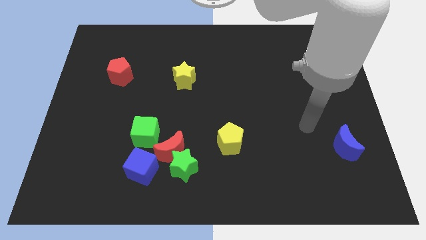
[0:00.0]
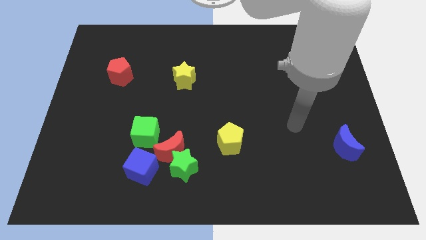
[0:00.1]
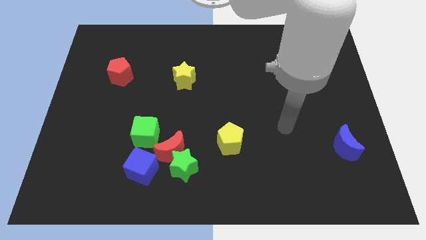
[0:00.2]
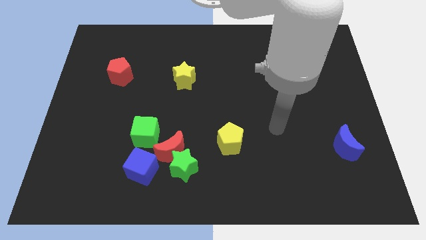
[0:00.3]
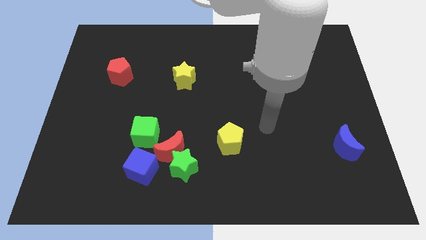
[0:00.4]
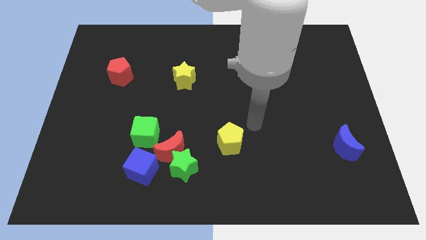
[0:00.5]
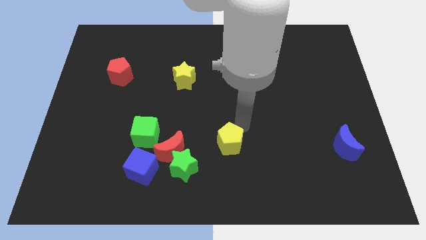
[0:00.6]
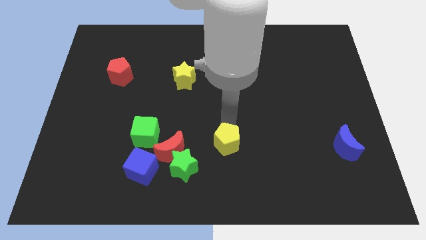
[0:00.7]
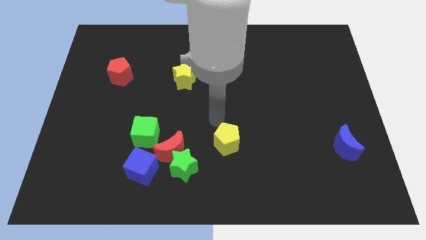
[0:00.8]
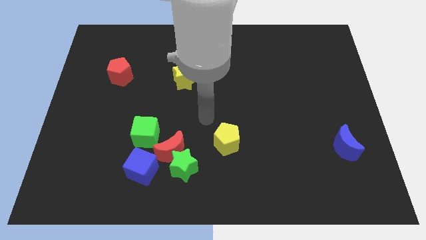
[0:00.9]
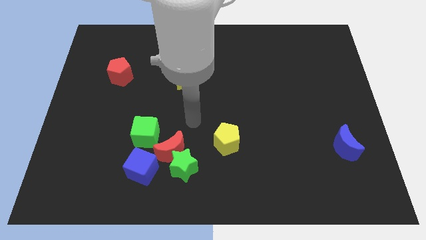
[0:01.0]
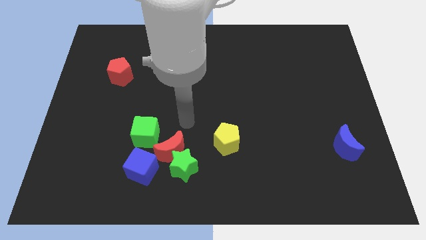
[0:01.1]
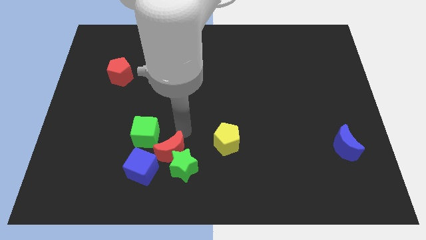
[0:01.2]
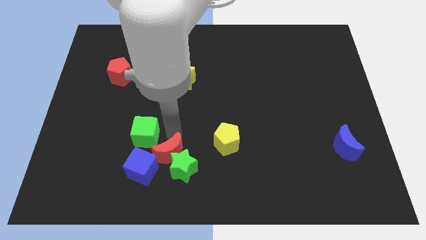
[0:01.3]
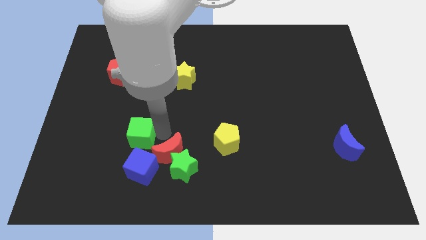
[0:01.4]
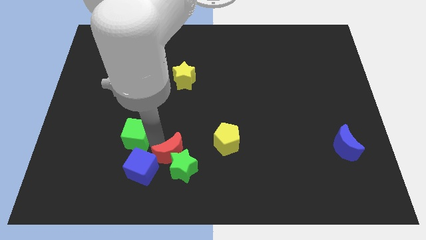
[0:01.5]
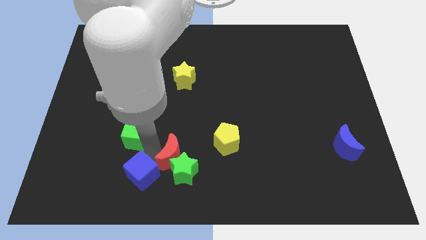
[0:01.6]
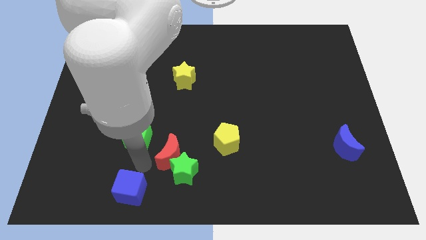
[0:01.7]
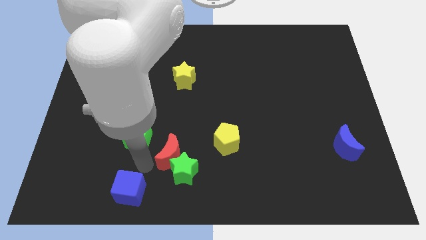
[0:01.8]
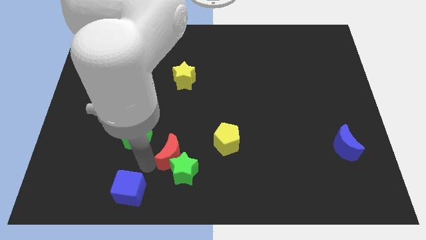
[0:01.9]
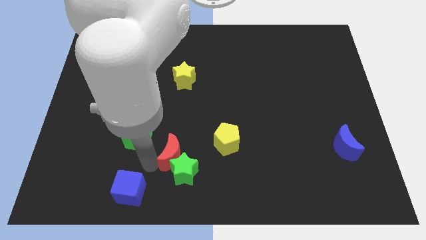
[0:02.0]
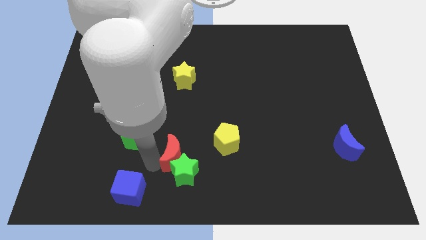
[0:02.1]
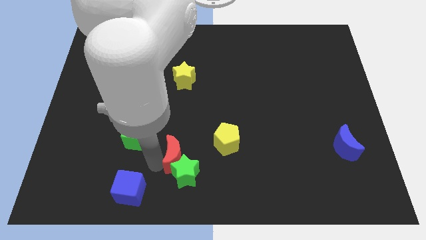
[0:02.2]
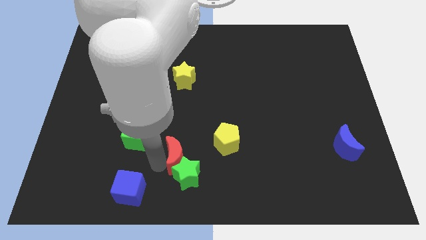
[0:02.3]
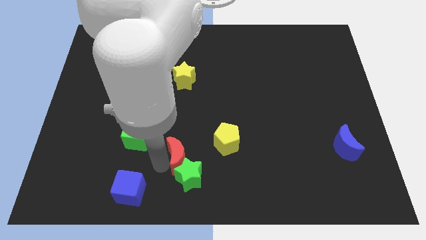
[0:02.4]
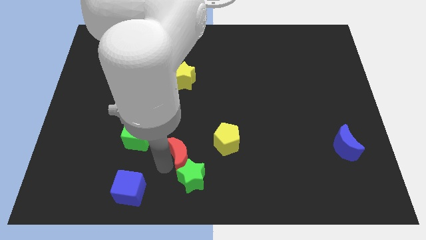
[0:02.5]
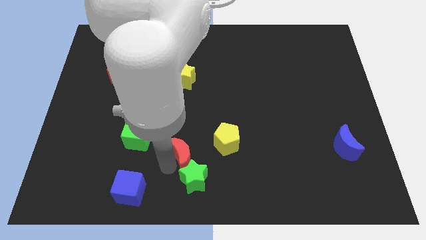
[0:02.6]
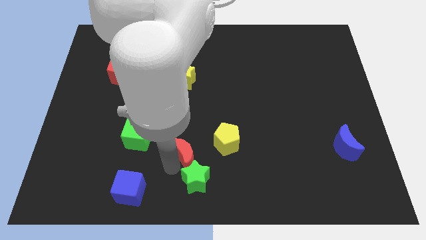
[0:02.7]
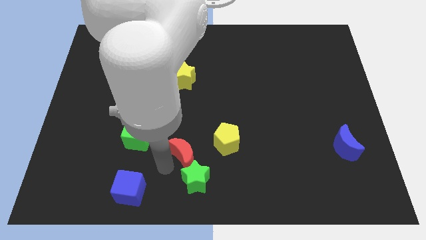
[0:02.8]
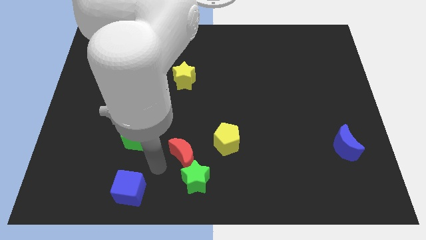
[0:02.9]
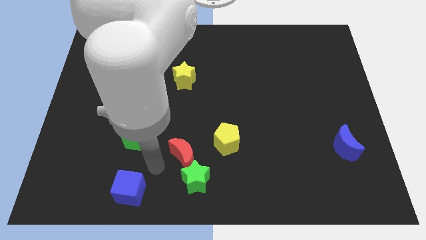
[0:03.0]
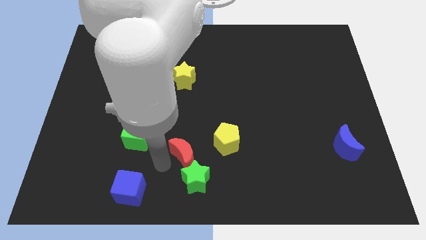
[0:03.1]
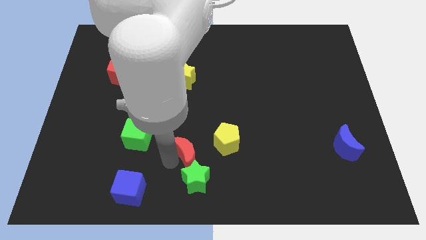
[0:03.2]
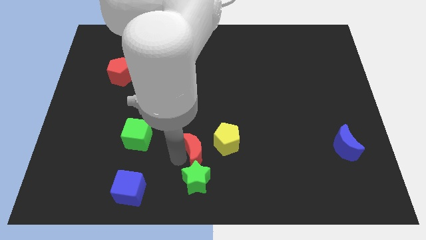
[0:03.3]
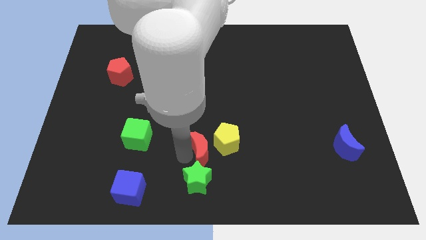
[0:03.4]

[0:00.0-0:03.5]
separate the red moon from the green star, blue cube, and green cube

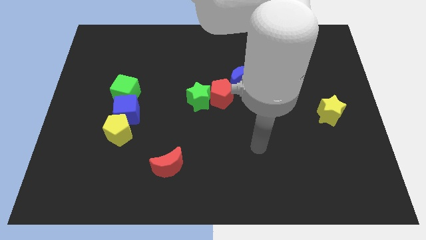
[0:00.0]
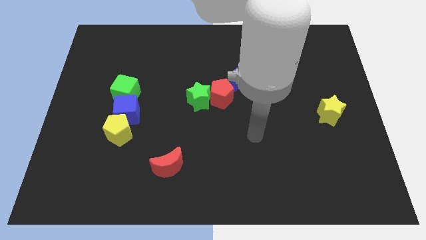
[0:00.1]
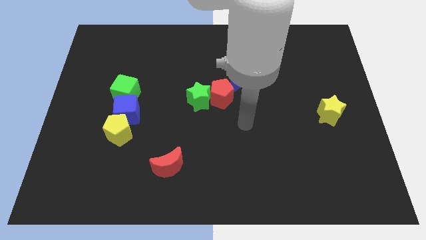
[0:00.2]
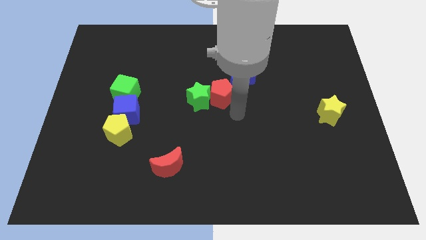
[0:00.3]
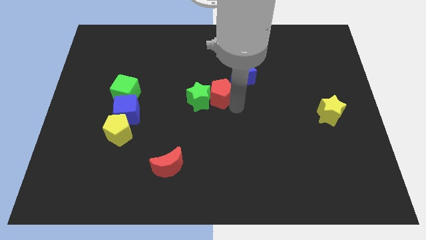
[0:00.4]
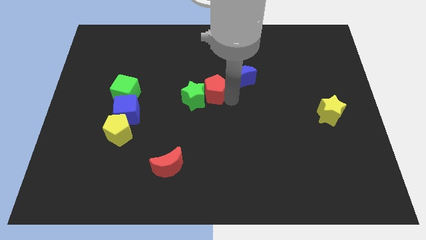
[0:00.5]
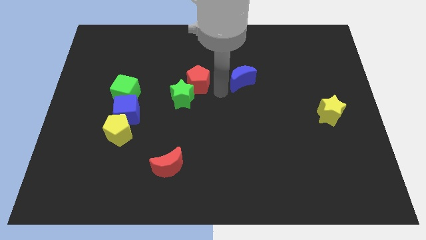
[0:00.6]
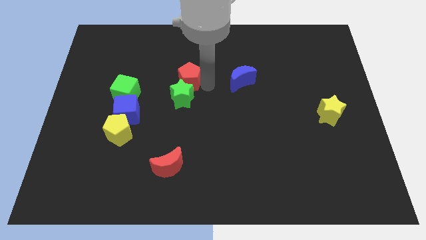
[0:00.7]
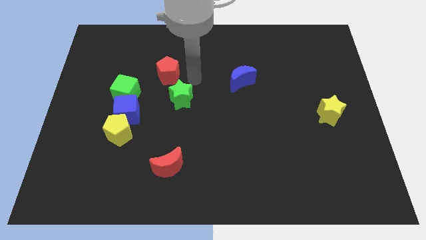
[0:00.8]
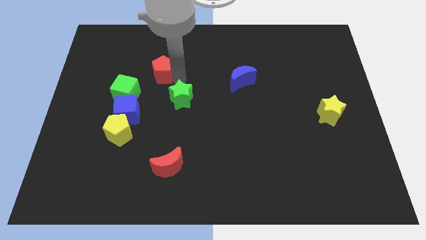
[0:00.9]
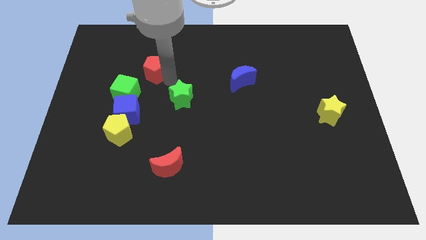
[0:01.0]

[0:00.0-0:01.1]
pull the green star apart from the red pentagon

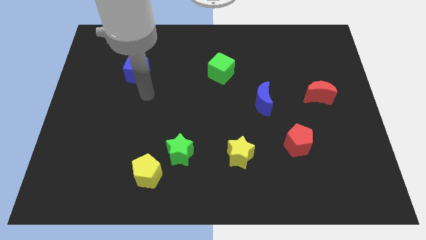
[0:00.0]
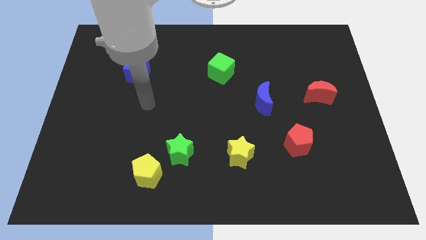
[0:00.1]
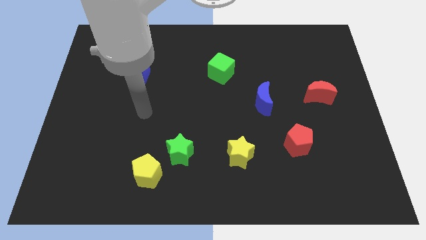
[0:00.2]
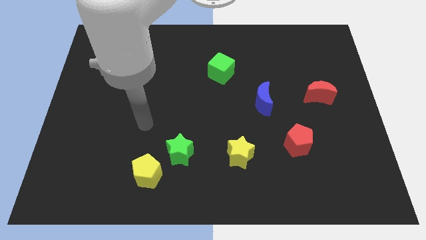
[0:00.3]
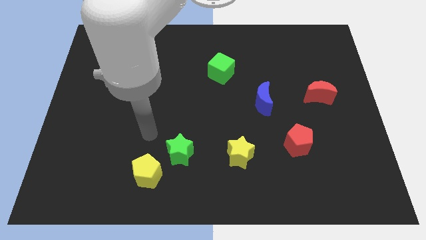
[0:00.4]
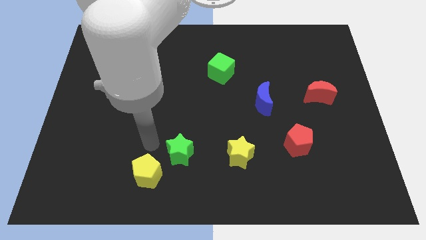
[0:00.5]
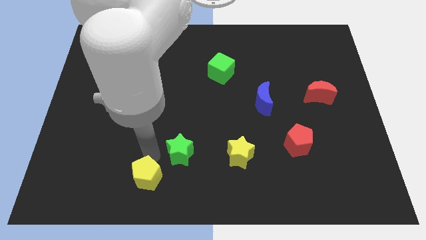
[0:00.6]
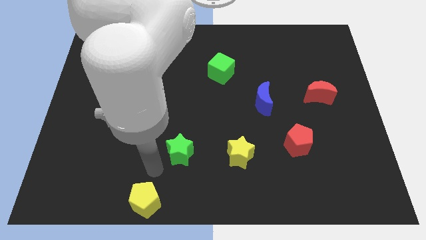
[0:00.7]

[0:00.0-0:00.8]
pull the green star apart from the yellow pentagon

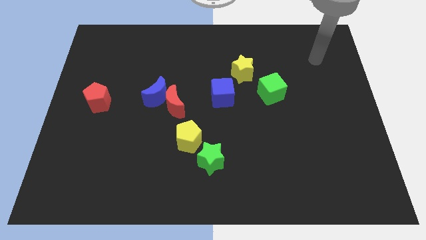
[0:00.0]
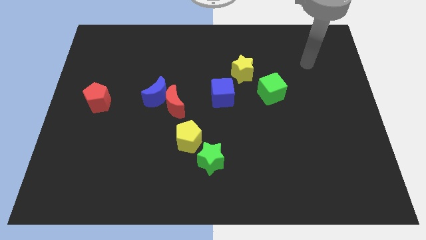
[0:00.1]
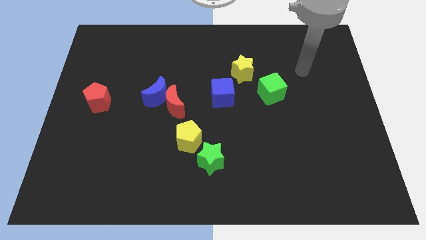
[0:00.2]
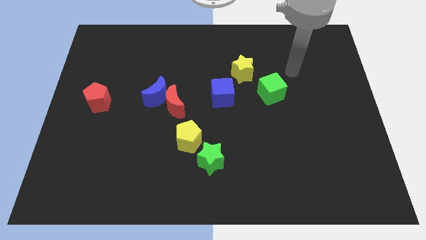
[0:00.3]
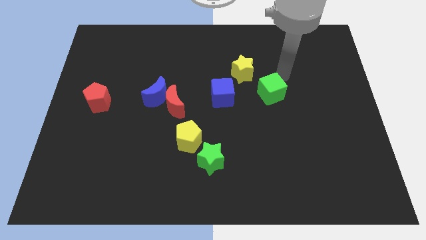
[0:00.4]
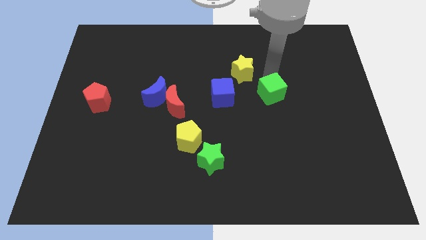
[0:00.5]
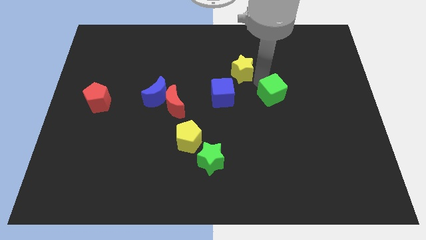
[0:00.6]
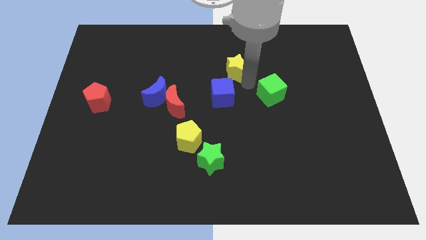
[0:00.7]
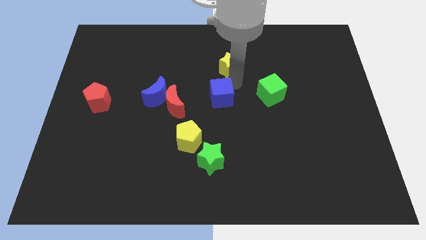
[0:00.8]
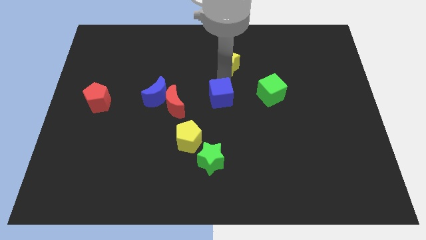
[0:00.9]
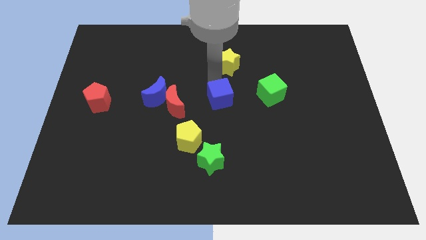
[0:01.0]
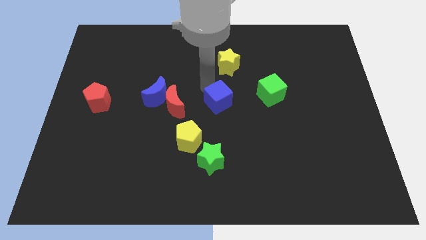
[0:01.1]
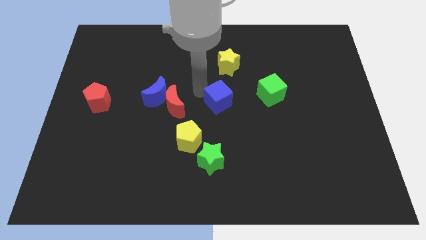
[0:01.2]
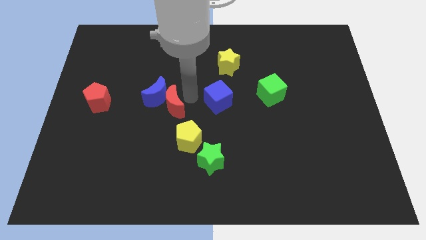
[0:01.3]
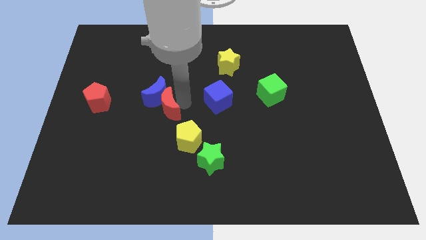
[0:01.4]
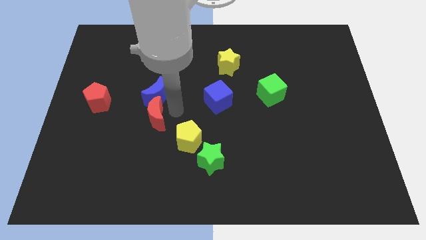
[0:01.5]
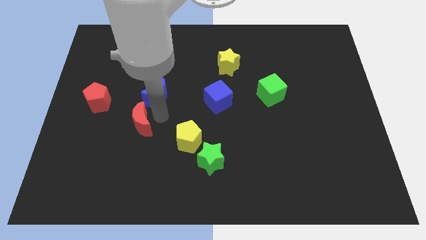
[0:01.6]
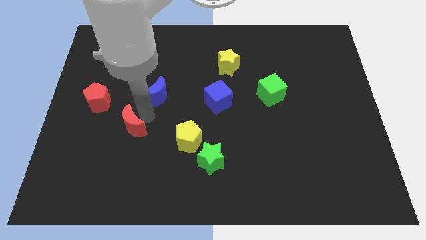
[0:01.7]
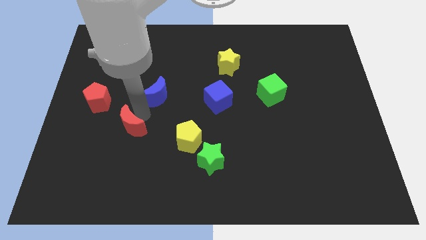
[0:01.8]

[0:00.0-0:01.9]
pull the blue moon apart from the red moon

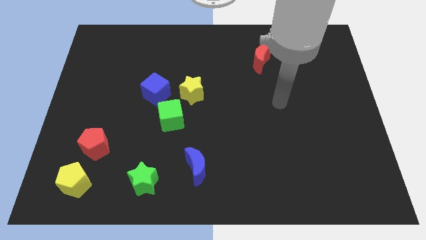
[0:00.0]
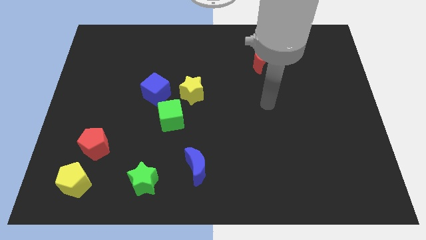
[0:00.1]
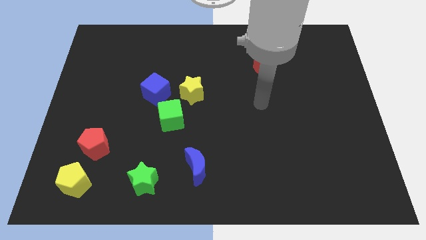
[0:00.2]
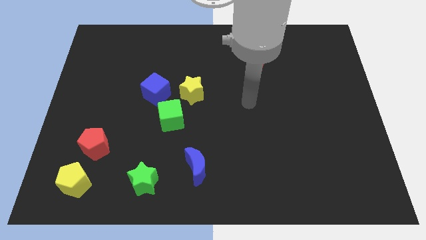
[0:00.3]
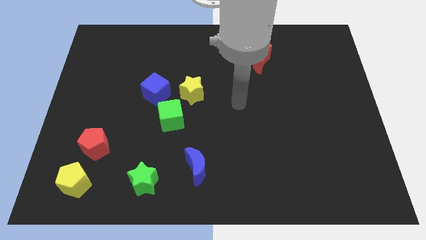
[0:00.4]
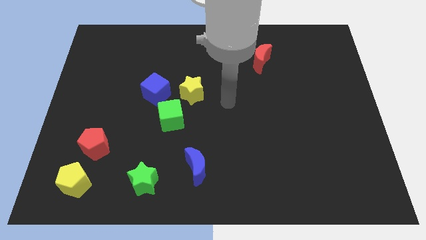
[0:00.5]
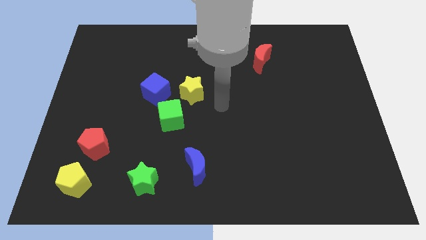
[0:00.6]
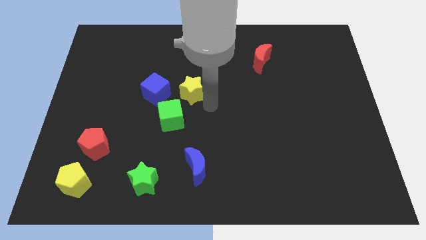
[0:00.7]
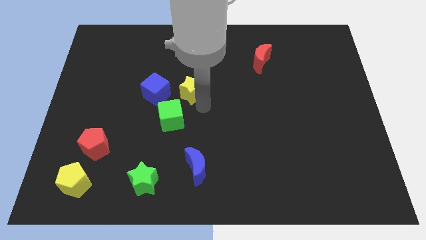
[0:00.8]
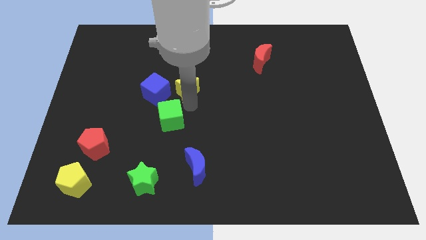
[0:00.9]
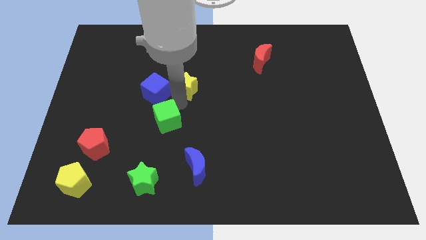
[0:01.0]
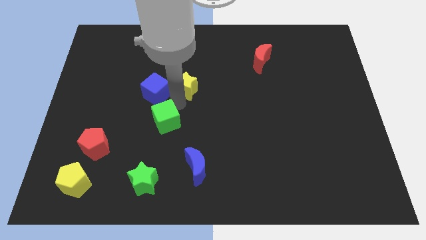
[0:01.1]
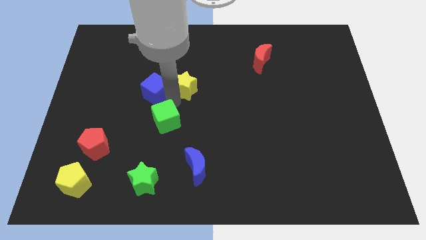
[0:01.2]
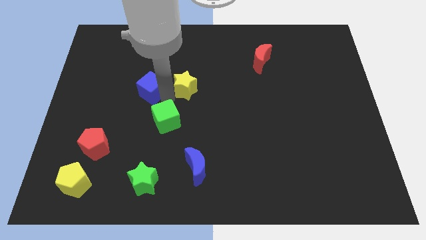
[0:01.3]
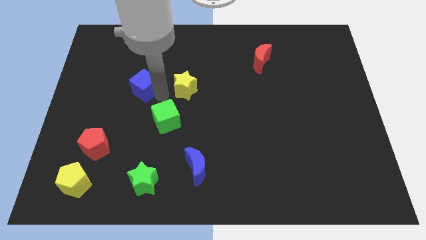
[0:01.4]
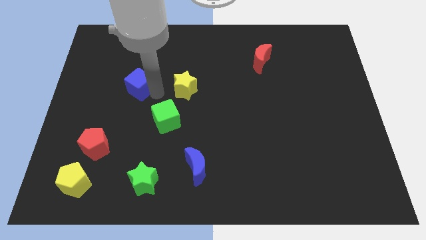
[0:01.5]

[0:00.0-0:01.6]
move the blue cube away from the yellow star and green cube

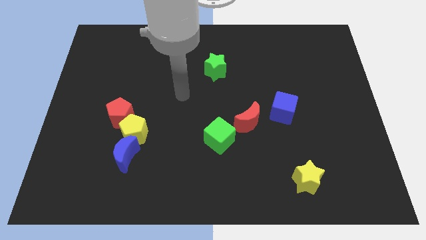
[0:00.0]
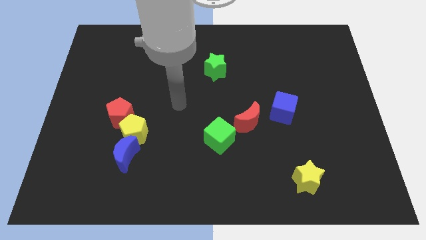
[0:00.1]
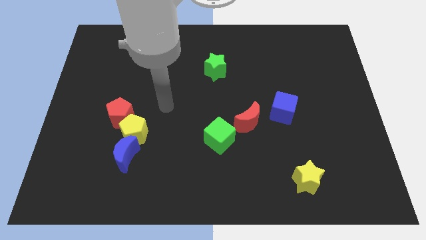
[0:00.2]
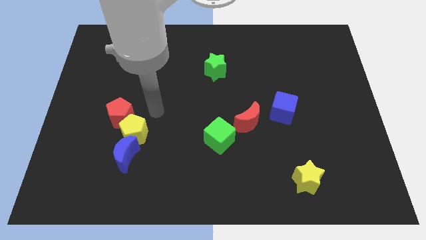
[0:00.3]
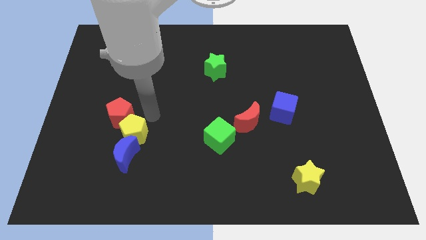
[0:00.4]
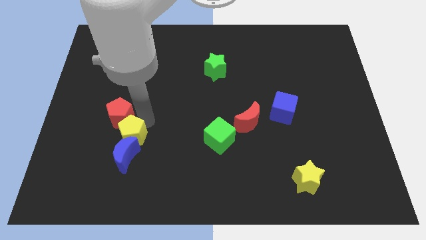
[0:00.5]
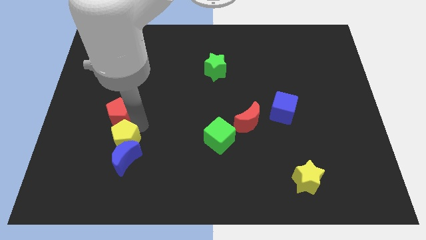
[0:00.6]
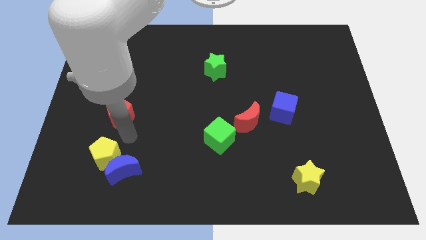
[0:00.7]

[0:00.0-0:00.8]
move the red pentagon away from the yellow pentagon
